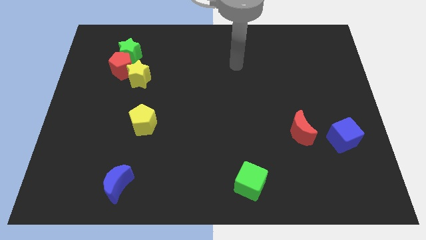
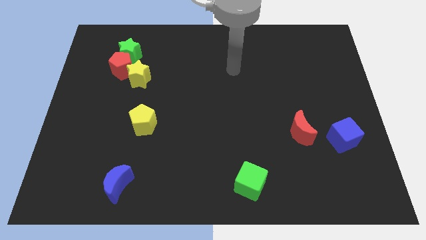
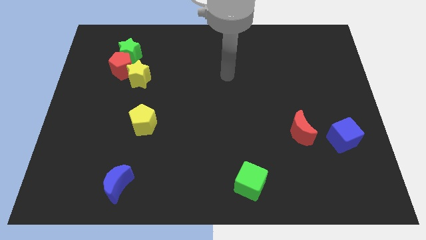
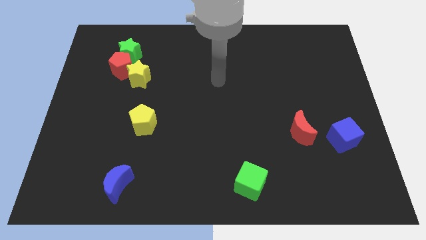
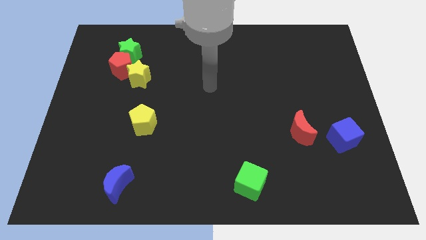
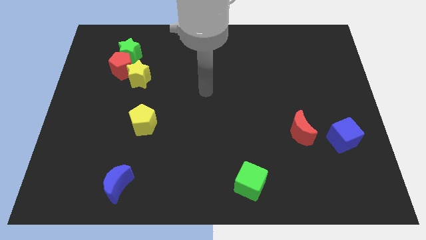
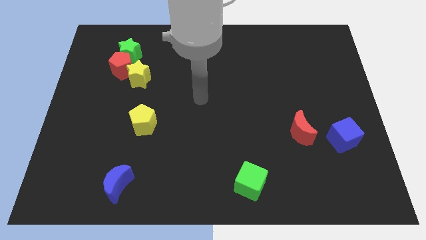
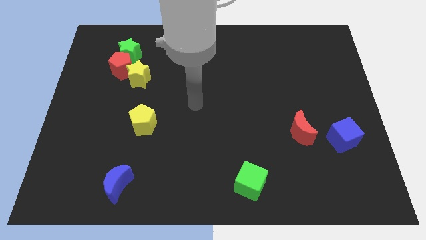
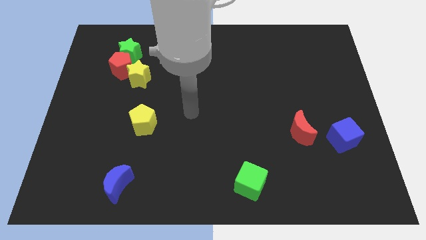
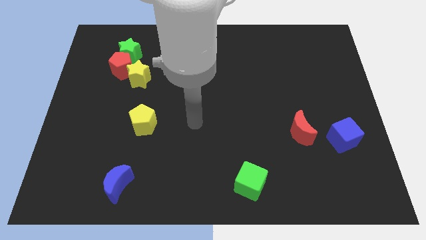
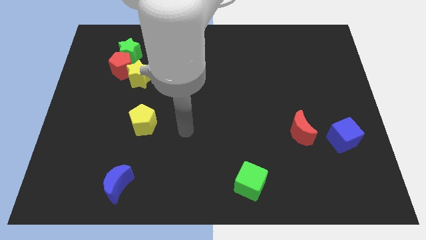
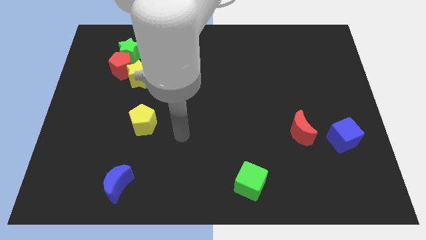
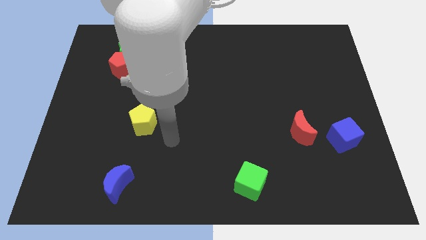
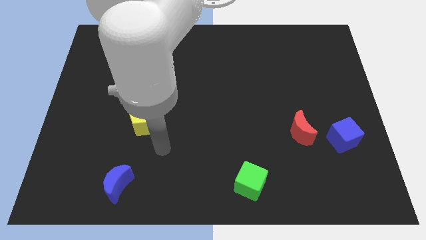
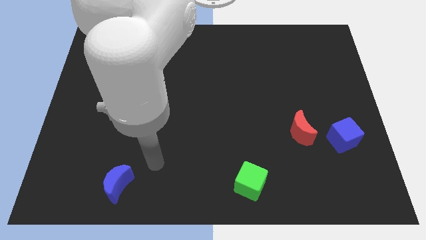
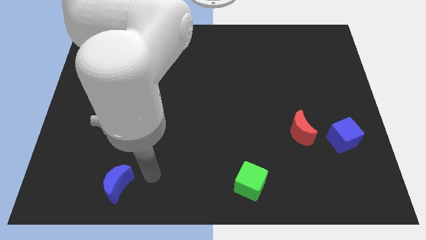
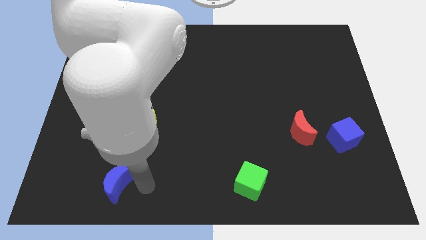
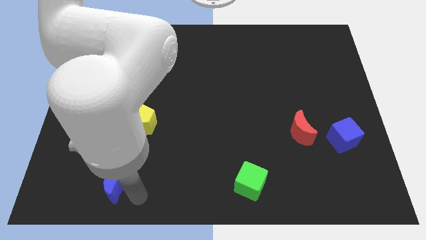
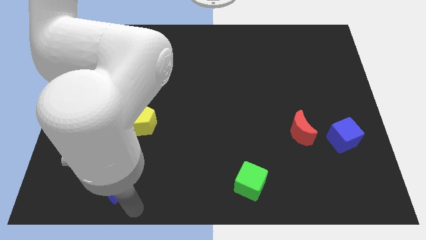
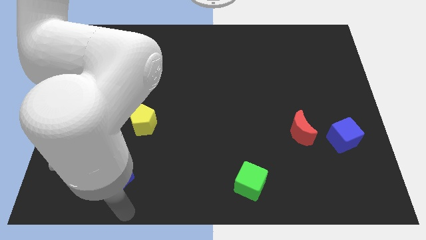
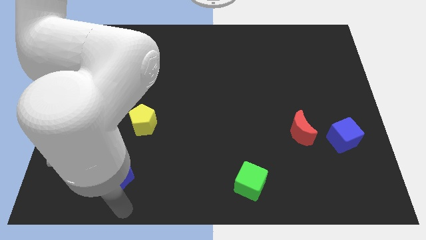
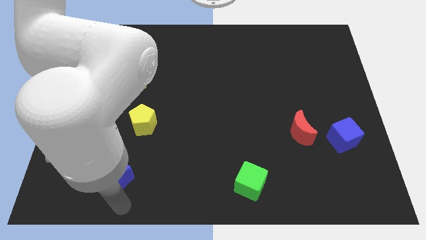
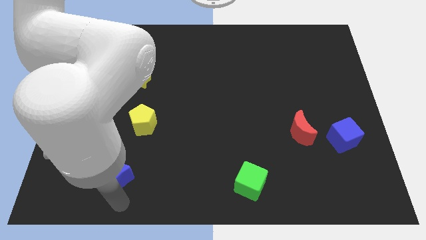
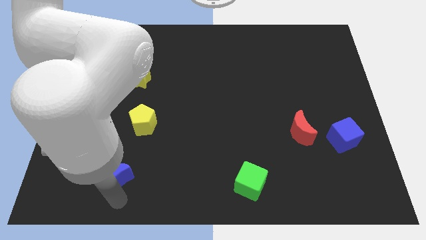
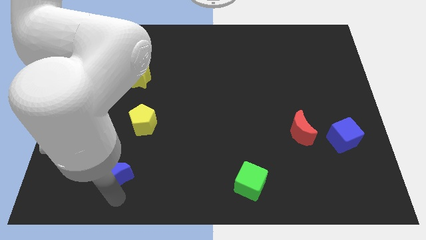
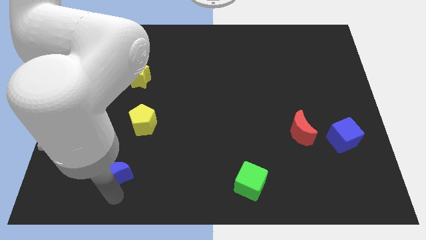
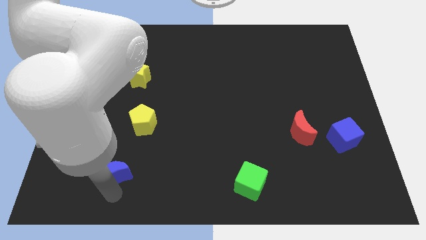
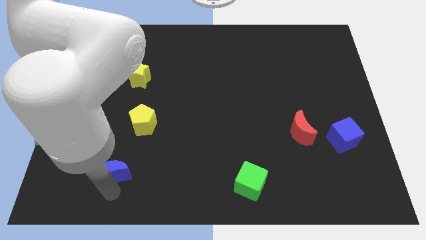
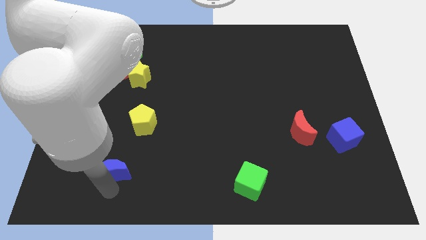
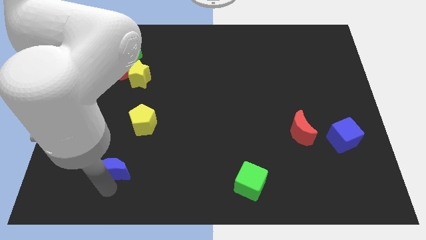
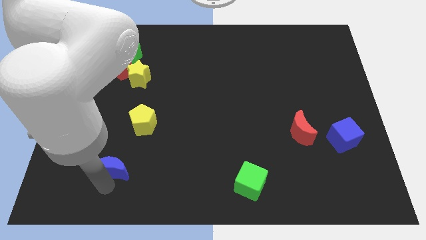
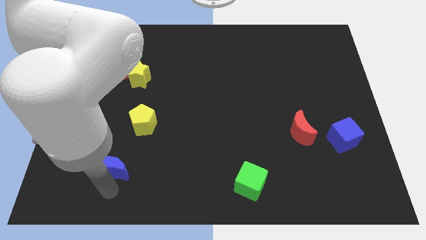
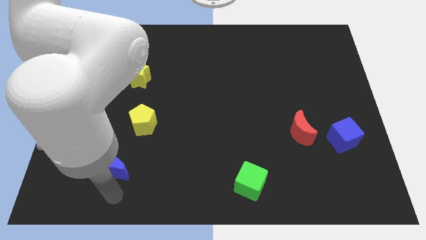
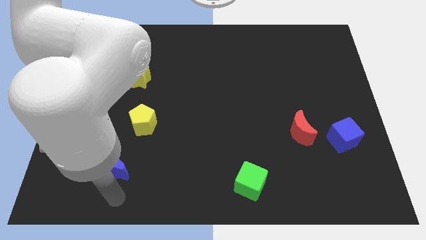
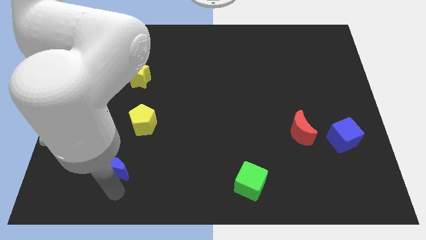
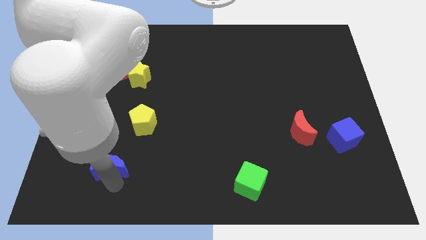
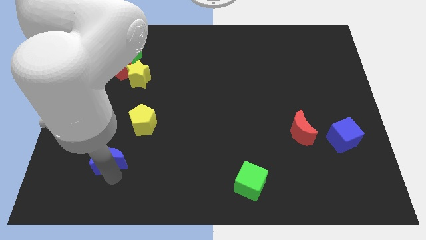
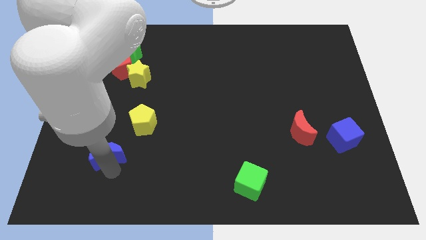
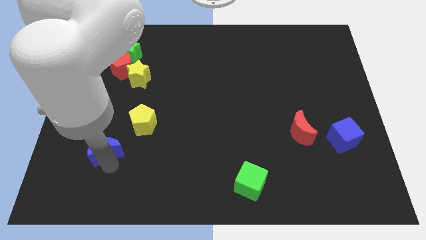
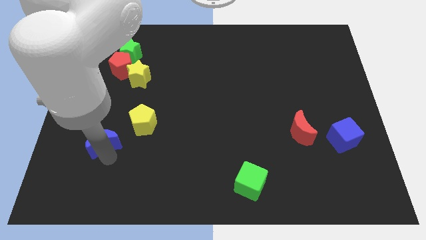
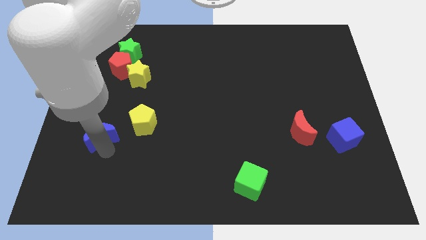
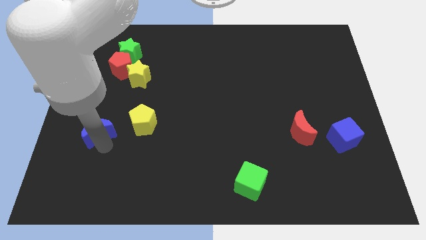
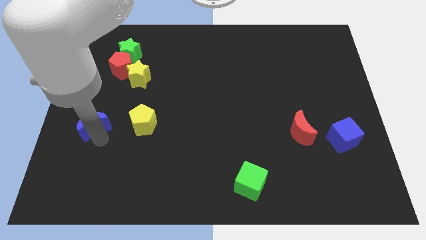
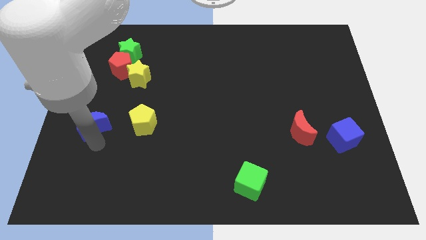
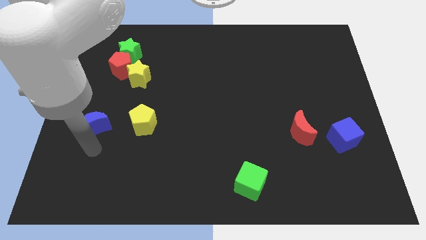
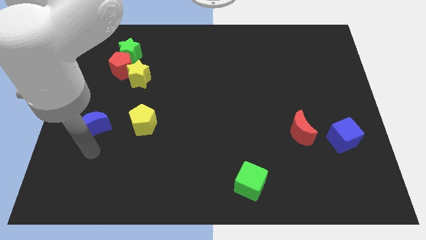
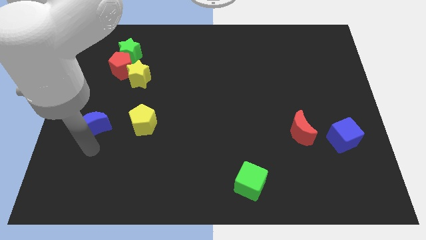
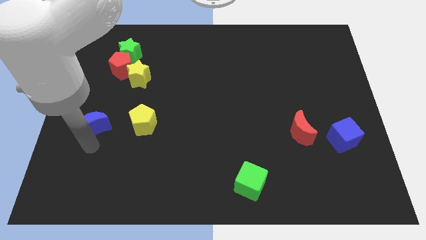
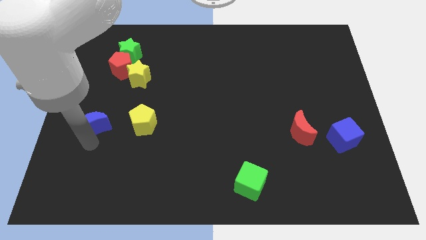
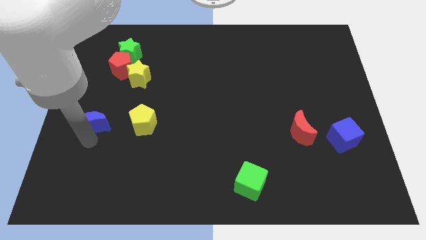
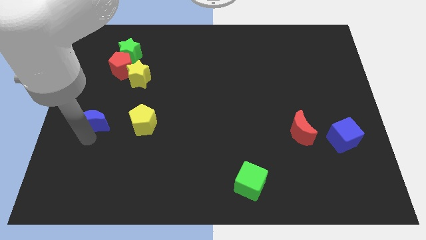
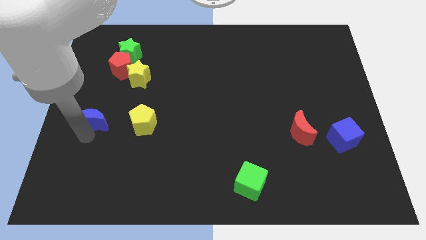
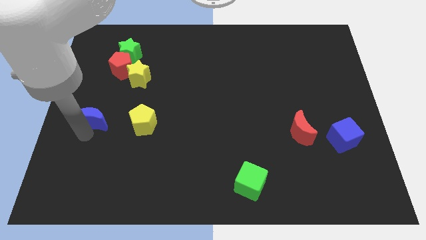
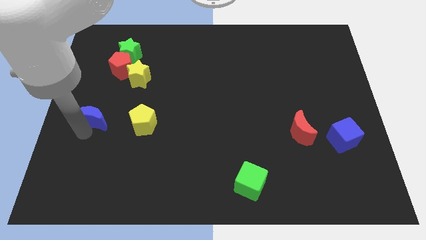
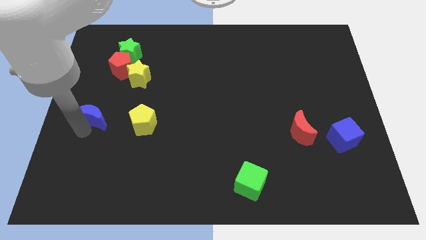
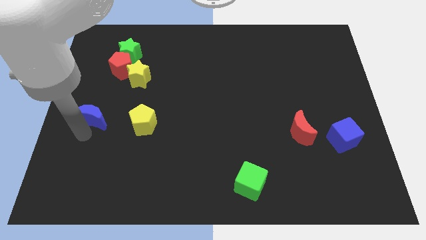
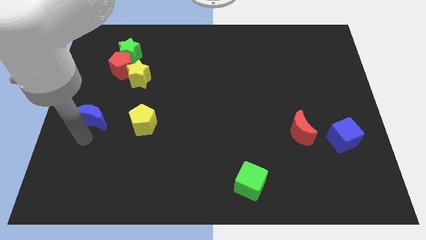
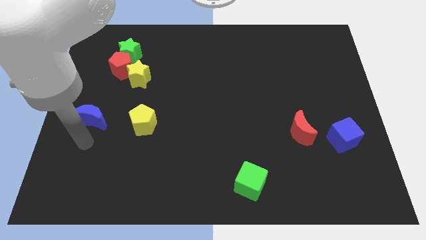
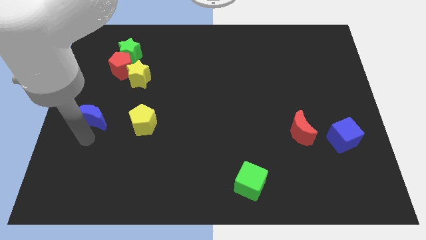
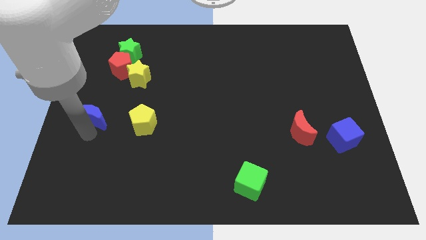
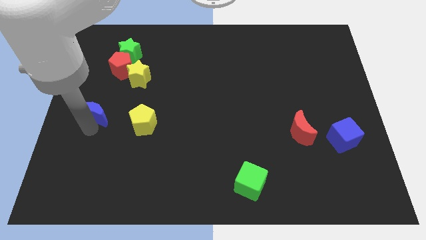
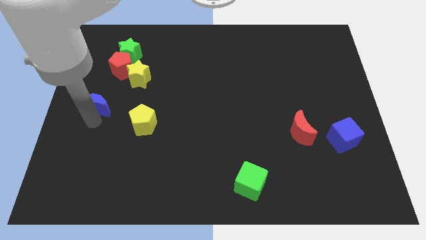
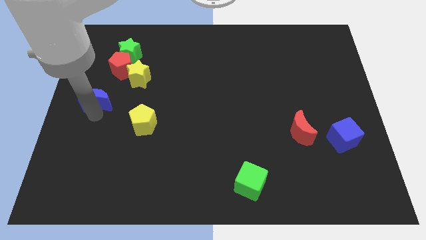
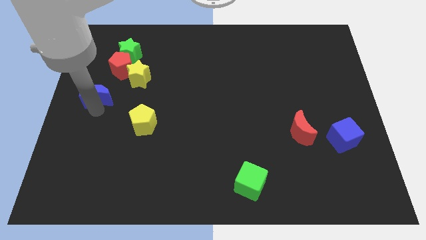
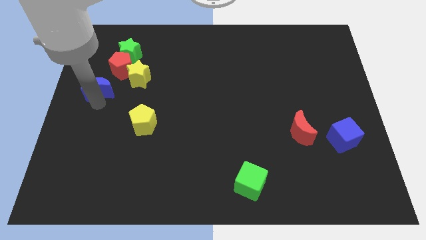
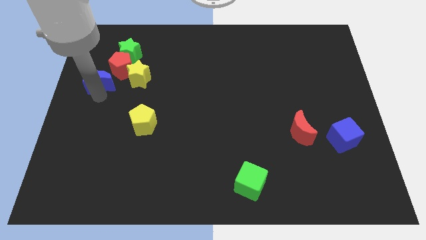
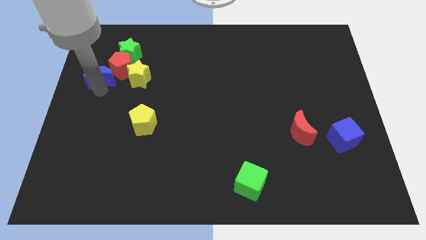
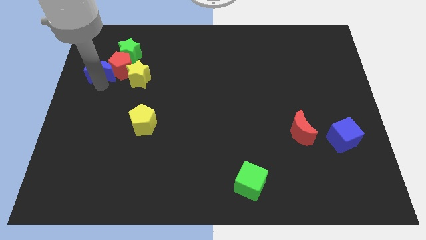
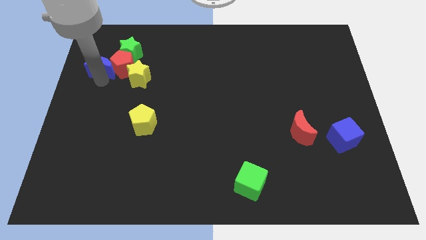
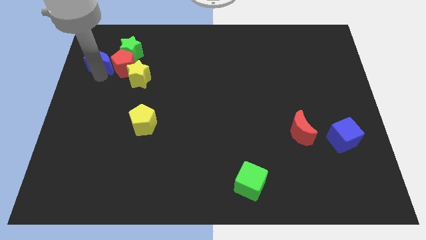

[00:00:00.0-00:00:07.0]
put the blue moon to the top left of the yellow star

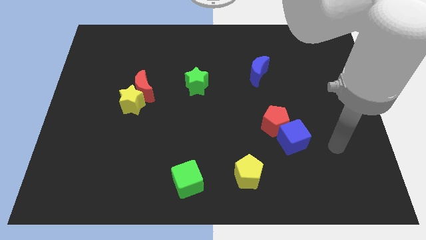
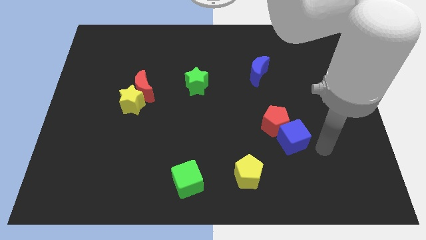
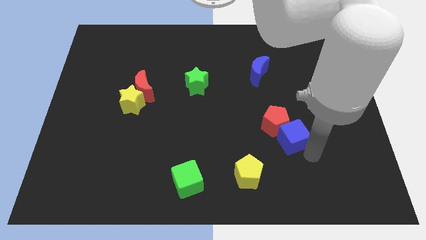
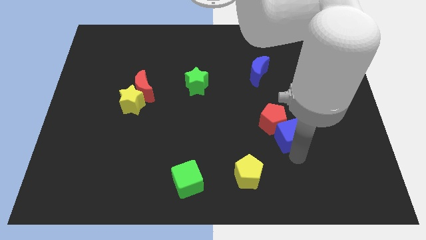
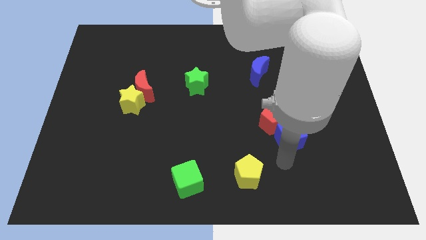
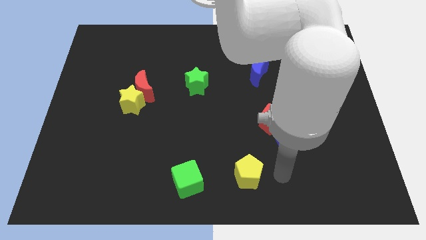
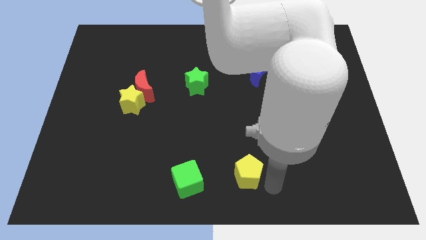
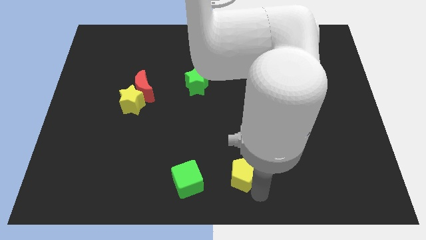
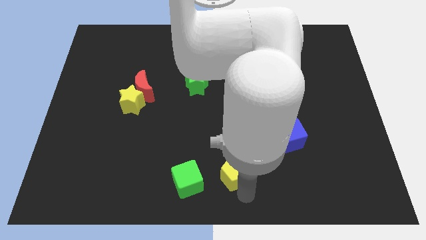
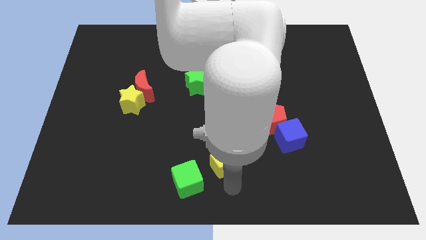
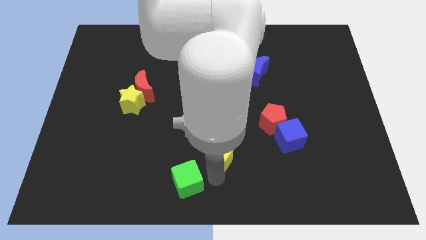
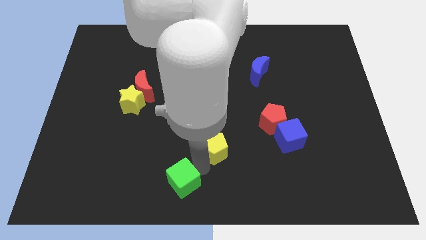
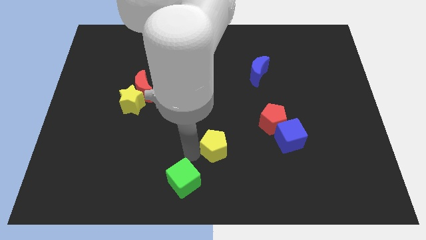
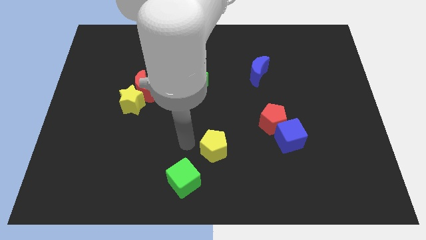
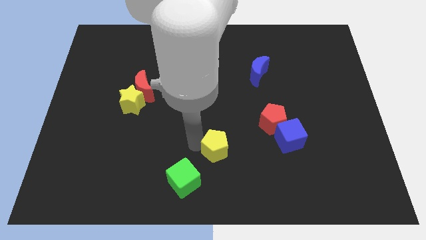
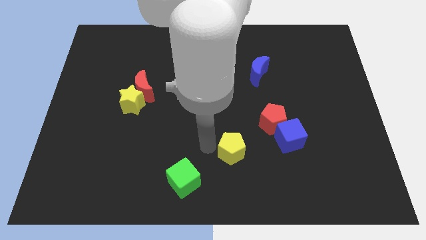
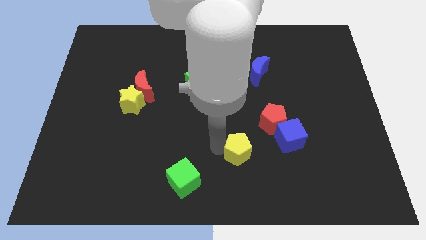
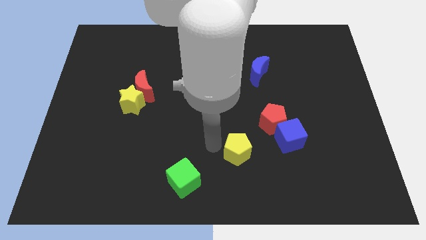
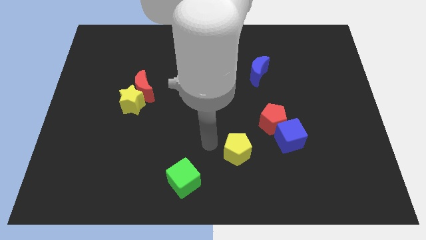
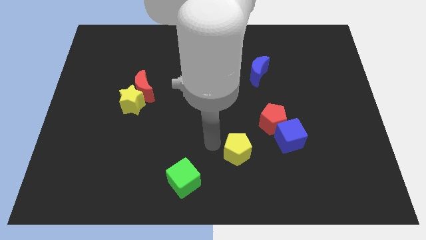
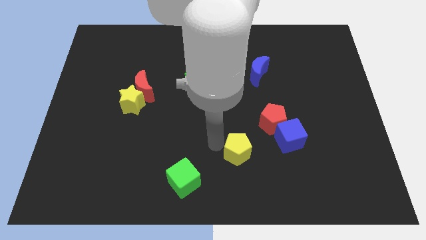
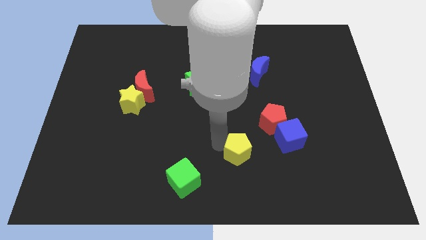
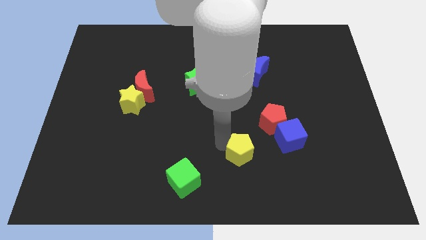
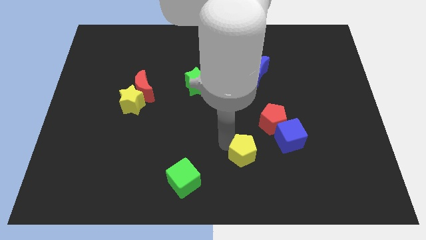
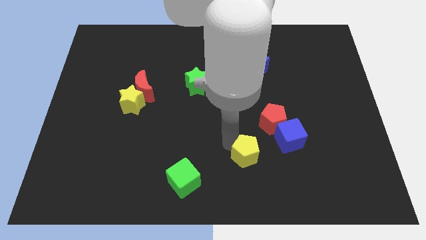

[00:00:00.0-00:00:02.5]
push the yellow pentagon to the bottom left side of the blue cube
